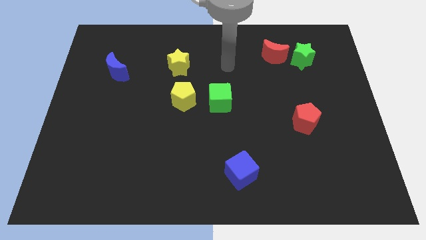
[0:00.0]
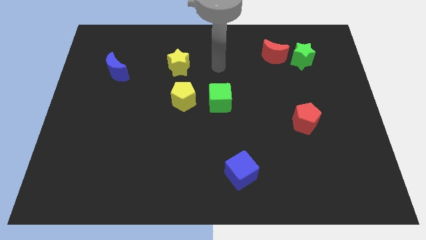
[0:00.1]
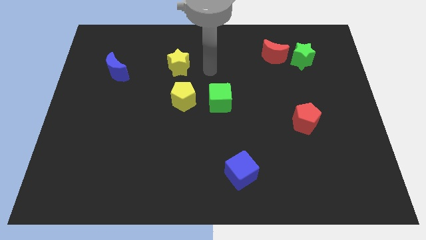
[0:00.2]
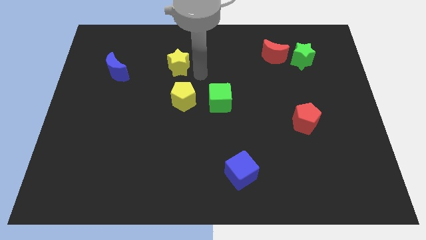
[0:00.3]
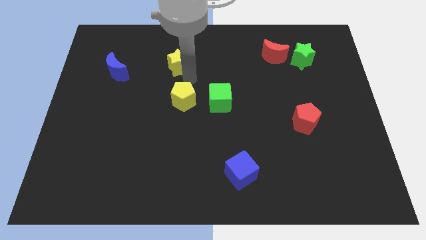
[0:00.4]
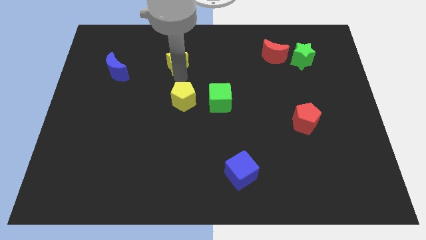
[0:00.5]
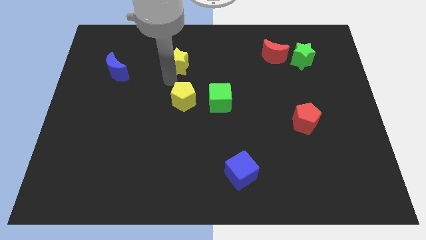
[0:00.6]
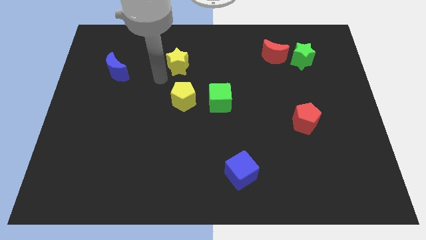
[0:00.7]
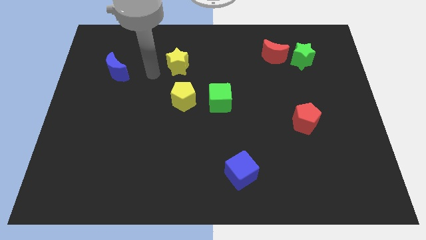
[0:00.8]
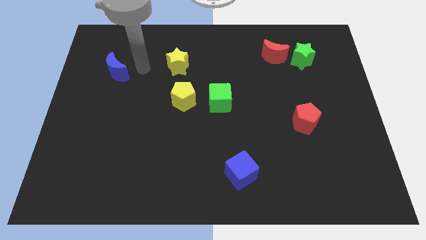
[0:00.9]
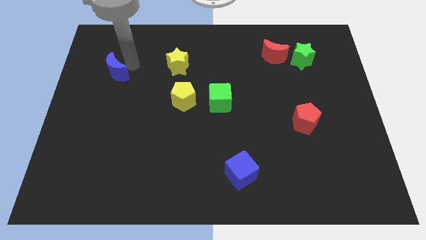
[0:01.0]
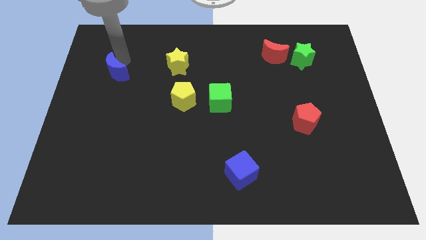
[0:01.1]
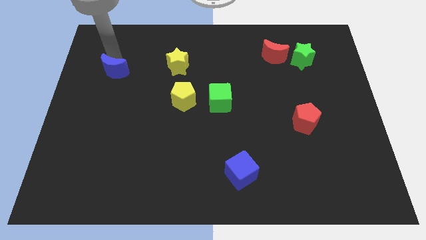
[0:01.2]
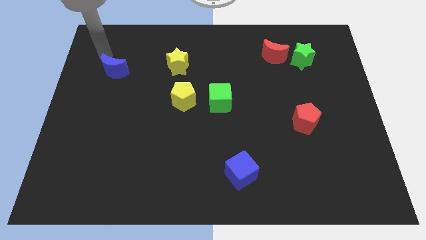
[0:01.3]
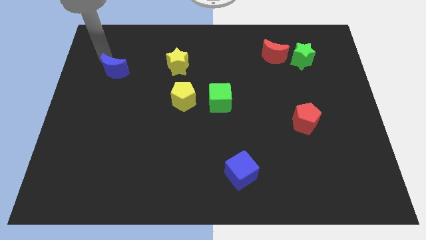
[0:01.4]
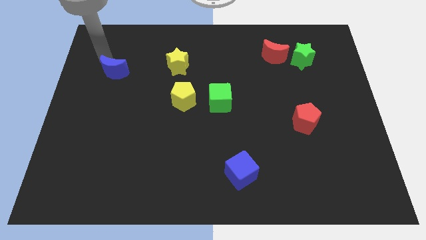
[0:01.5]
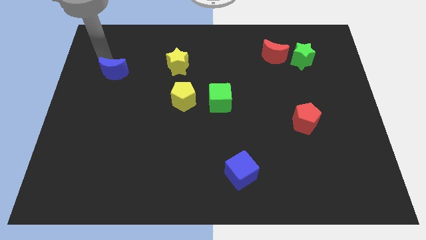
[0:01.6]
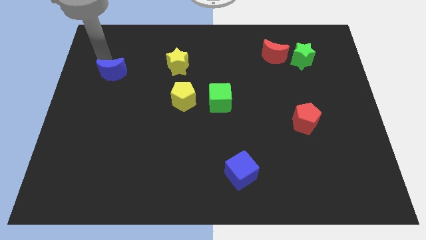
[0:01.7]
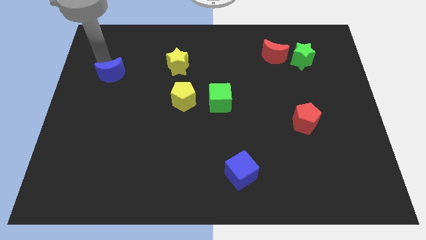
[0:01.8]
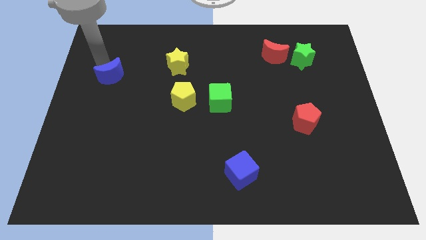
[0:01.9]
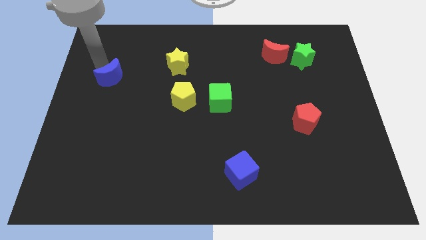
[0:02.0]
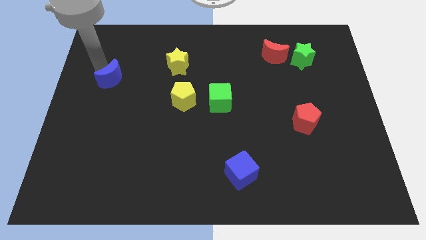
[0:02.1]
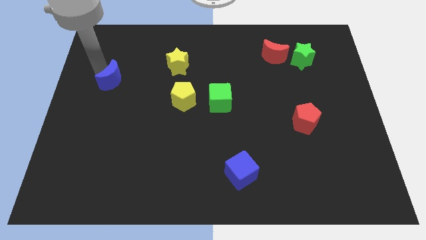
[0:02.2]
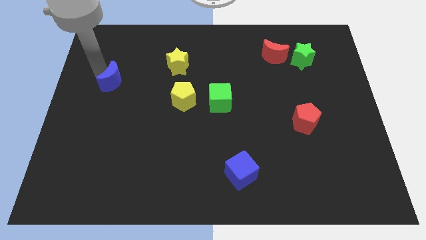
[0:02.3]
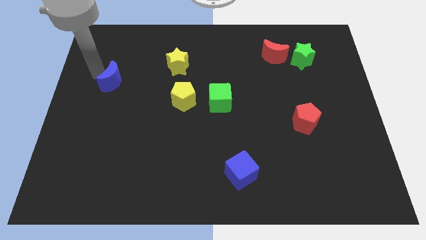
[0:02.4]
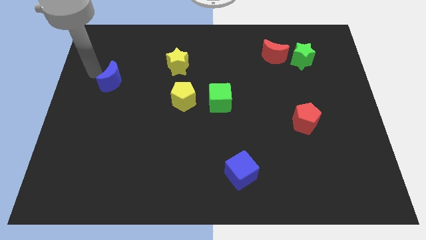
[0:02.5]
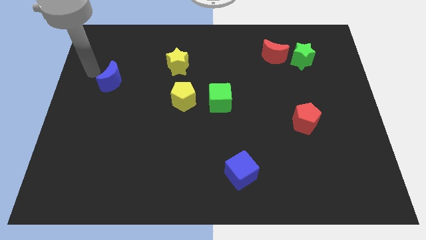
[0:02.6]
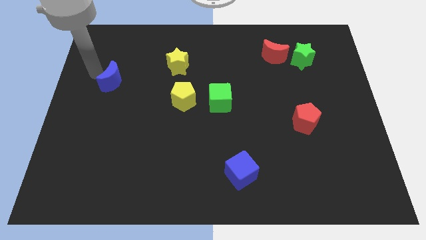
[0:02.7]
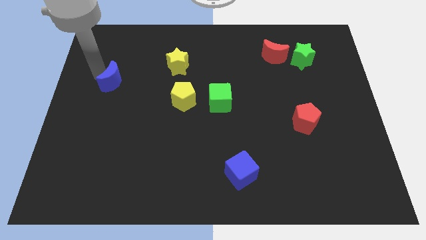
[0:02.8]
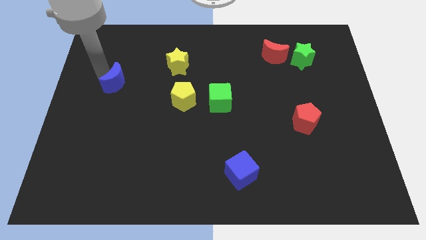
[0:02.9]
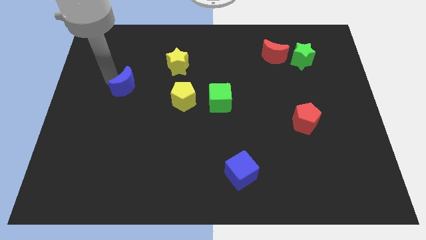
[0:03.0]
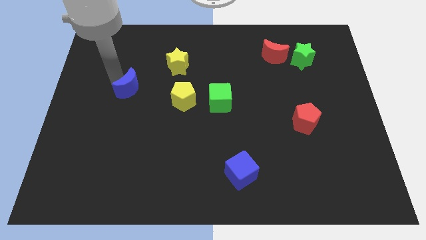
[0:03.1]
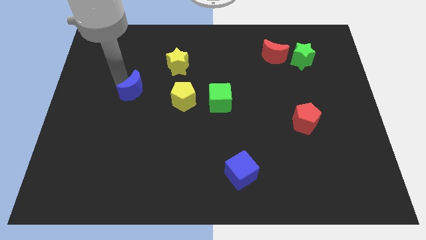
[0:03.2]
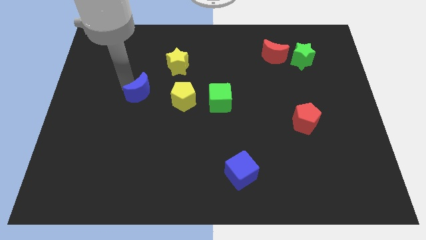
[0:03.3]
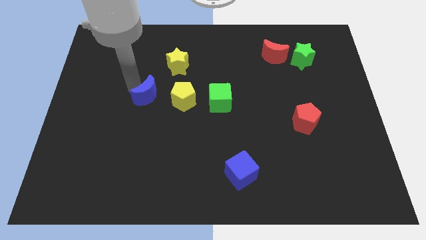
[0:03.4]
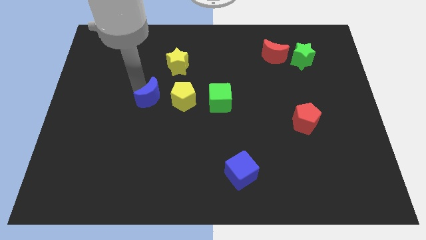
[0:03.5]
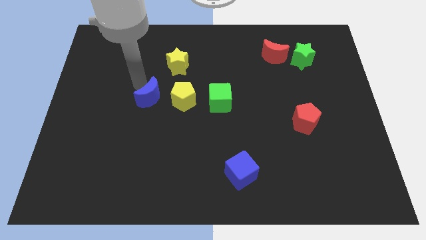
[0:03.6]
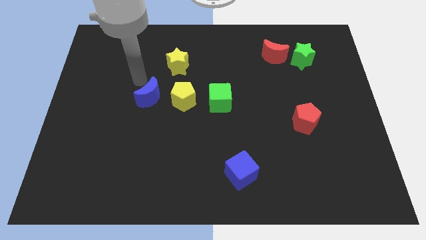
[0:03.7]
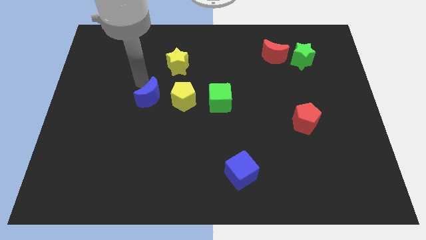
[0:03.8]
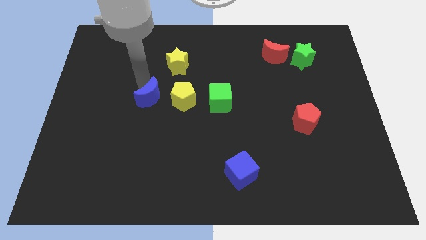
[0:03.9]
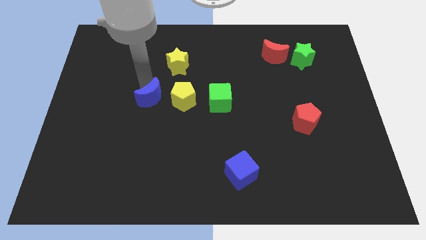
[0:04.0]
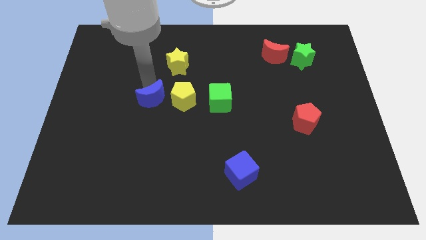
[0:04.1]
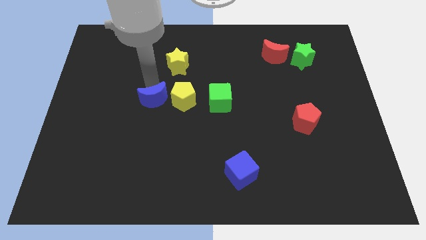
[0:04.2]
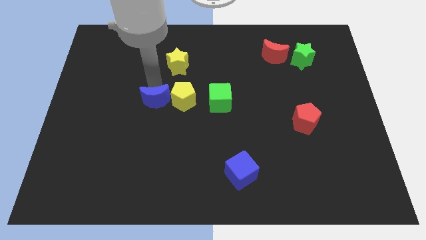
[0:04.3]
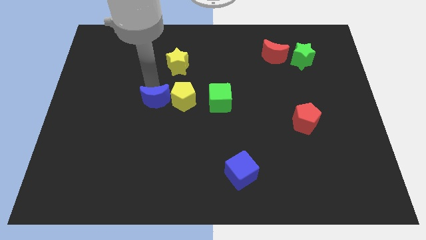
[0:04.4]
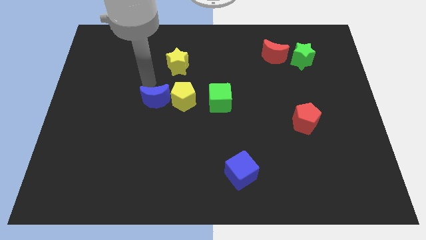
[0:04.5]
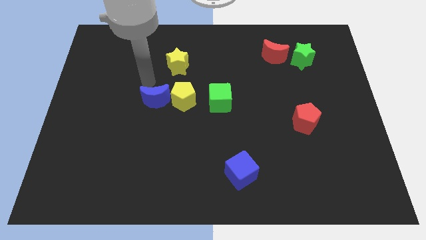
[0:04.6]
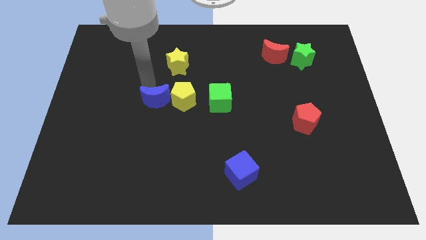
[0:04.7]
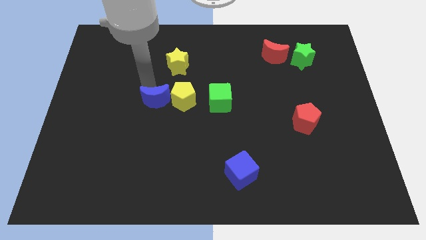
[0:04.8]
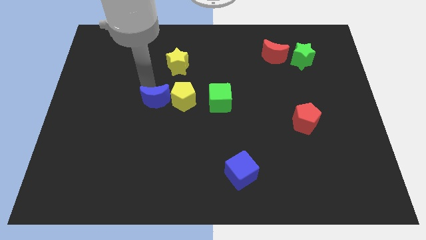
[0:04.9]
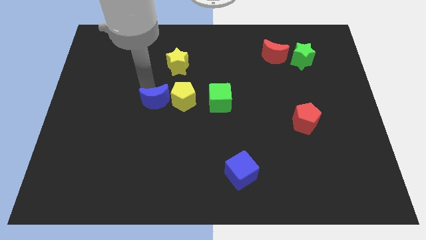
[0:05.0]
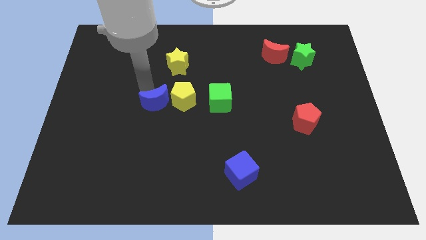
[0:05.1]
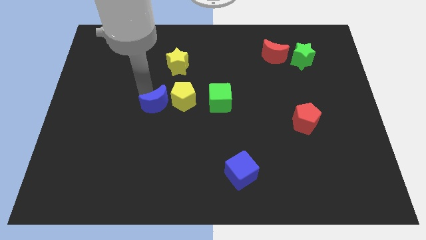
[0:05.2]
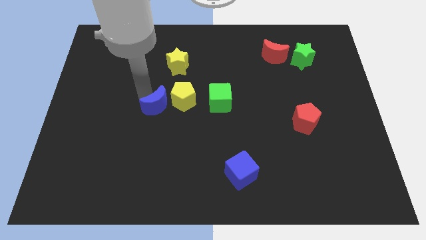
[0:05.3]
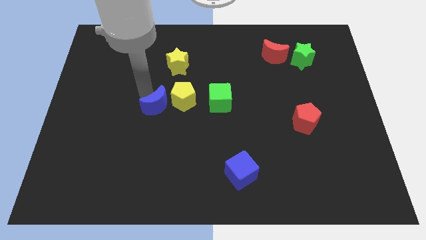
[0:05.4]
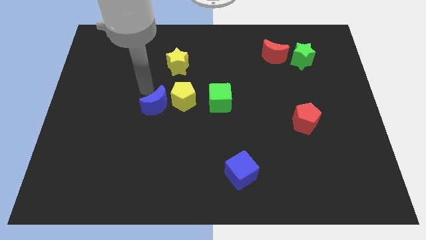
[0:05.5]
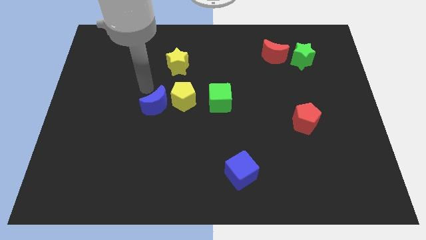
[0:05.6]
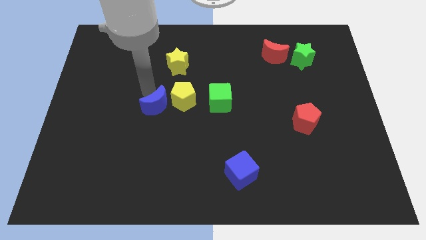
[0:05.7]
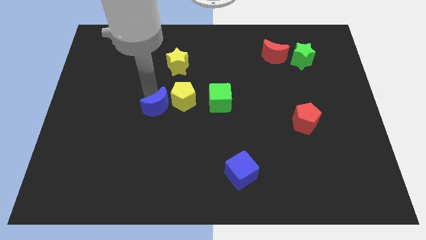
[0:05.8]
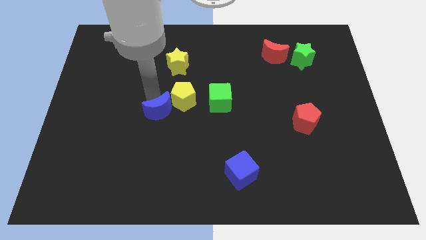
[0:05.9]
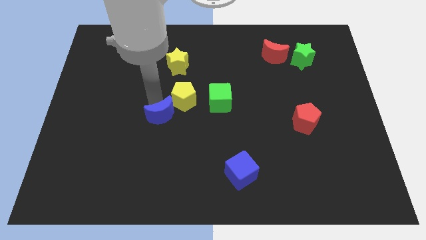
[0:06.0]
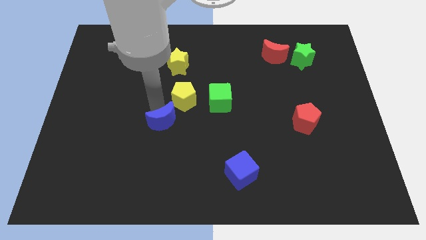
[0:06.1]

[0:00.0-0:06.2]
push the blue moon diagonally down and right

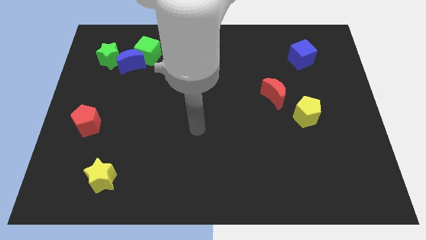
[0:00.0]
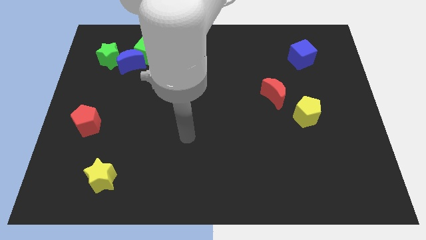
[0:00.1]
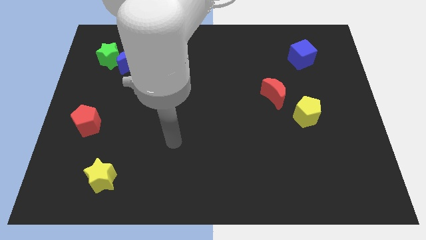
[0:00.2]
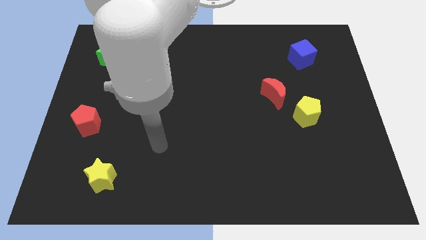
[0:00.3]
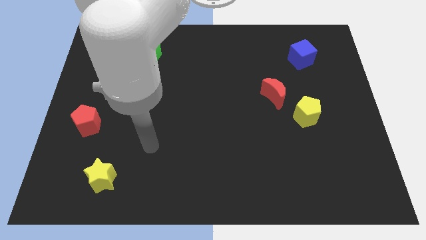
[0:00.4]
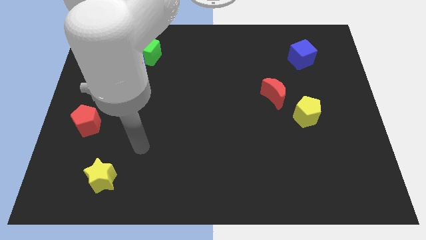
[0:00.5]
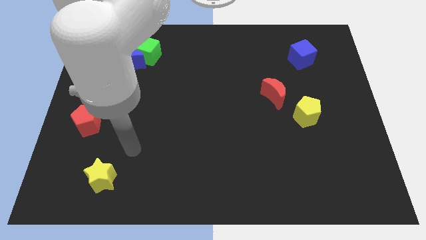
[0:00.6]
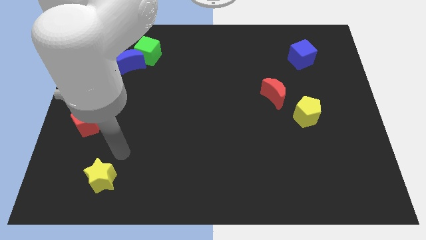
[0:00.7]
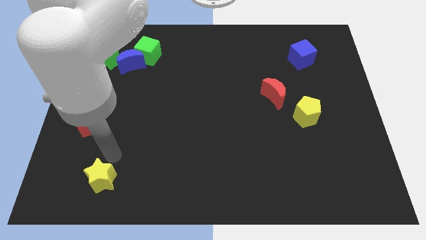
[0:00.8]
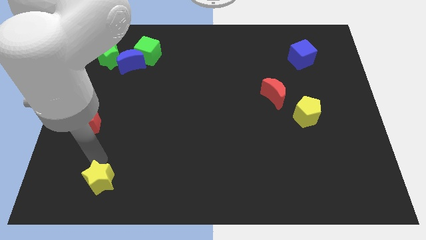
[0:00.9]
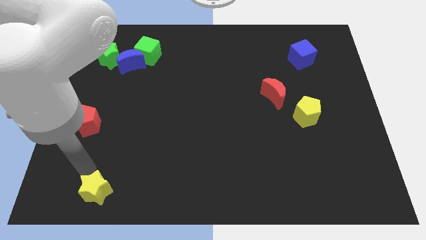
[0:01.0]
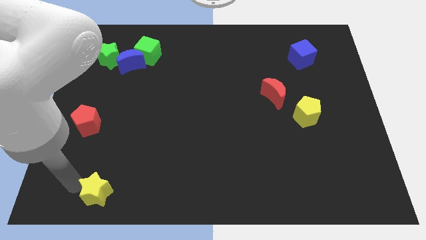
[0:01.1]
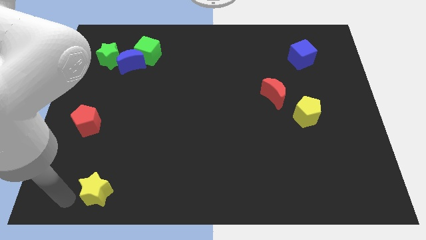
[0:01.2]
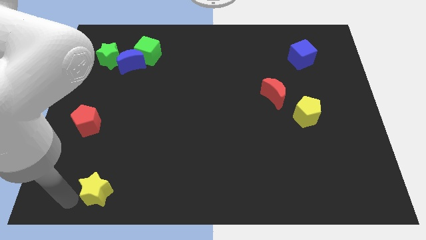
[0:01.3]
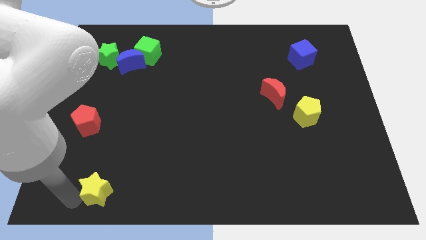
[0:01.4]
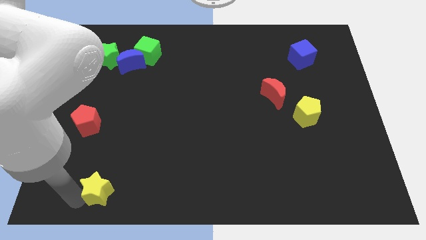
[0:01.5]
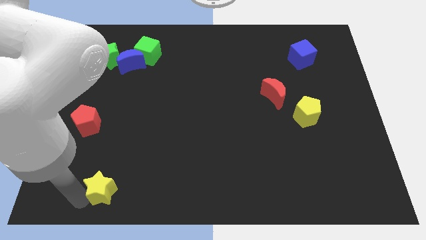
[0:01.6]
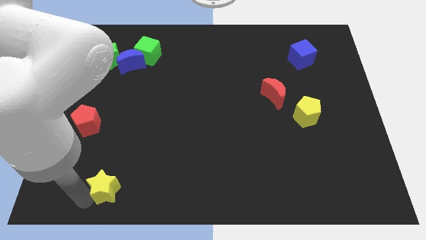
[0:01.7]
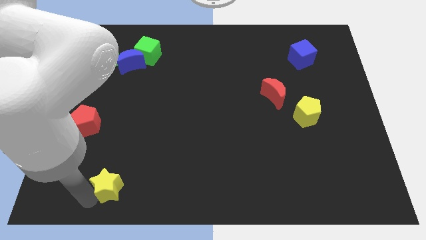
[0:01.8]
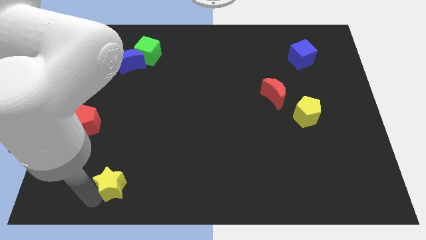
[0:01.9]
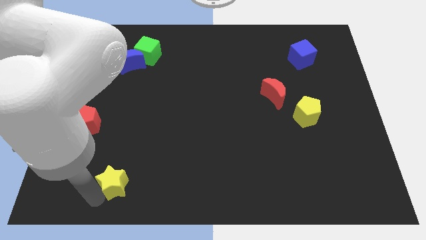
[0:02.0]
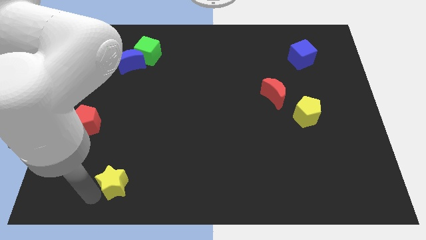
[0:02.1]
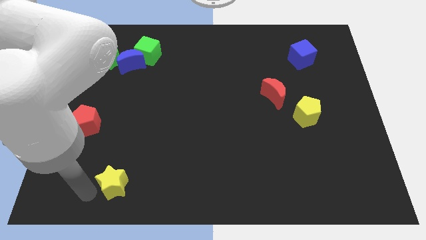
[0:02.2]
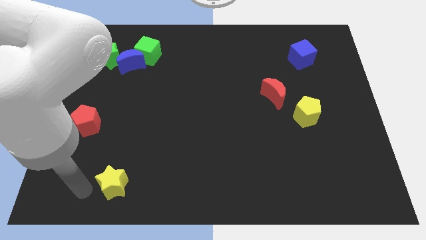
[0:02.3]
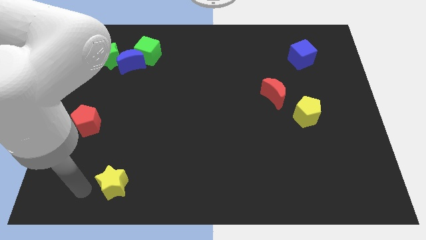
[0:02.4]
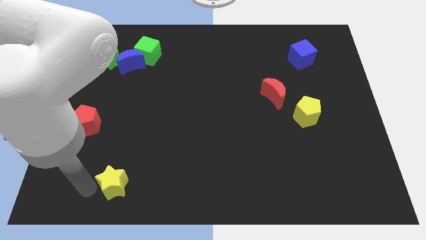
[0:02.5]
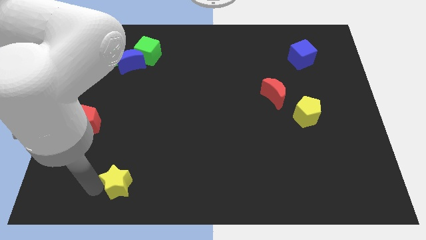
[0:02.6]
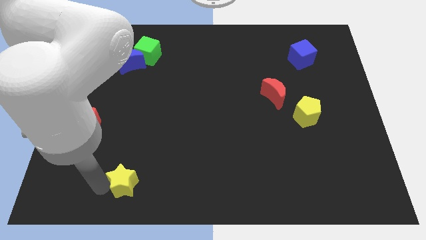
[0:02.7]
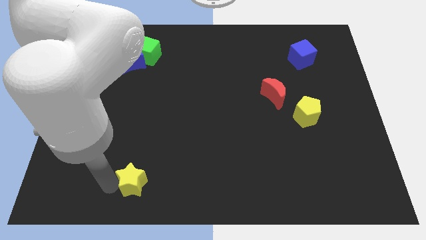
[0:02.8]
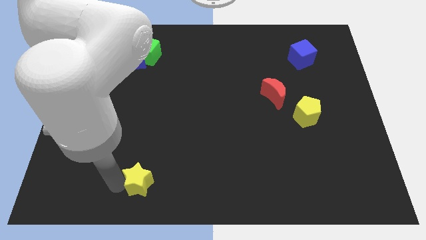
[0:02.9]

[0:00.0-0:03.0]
slightly push the yellow star right
